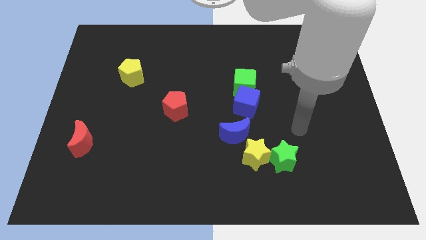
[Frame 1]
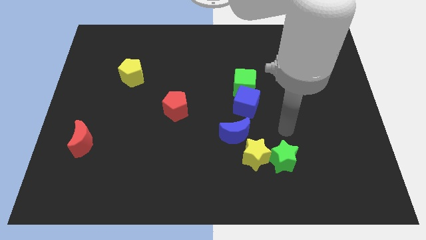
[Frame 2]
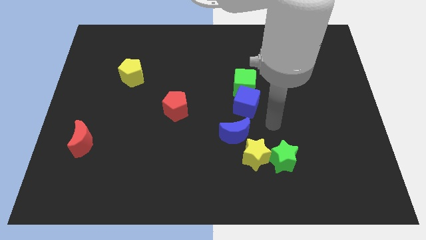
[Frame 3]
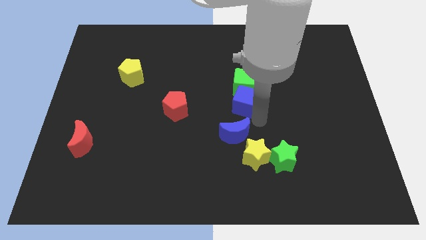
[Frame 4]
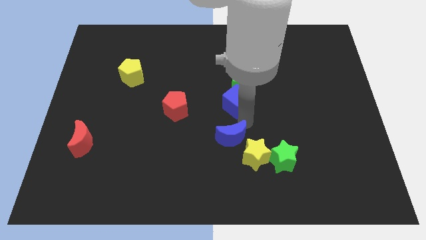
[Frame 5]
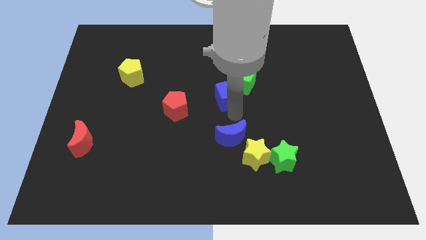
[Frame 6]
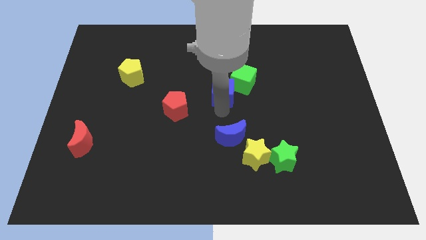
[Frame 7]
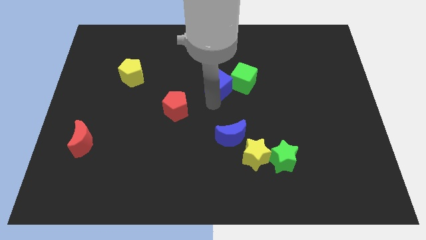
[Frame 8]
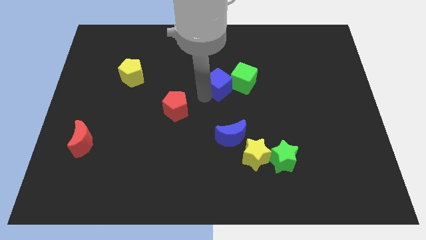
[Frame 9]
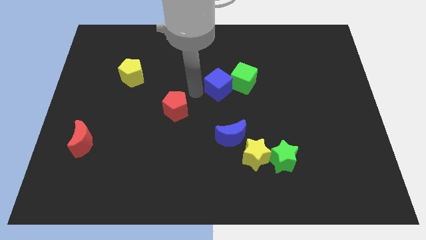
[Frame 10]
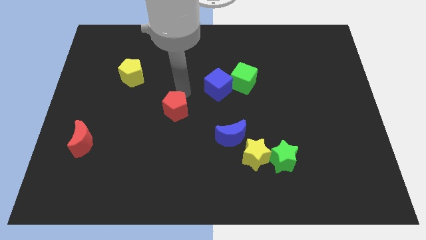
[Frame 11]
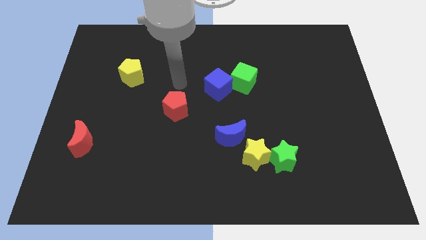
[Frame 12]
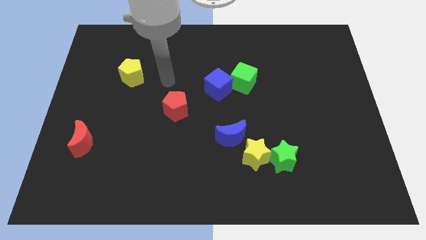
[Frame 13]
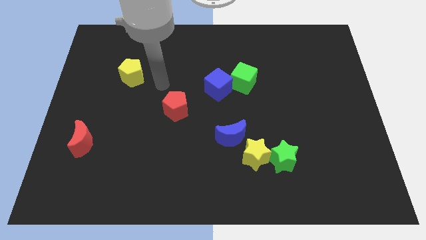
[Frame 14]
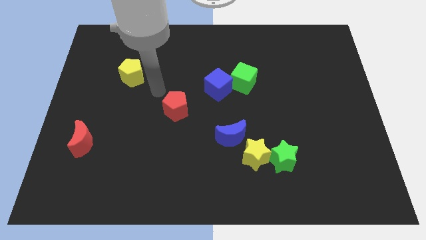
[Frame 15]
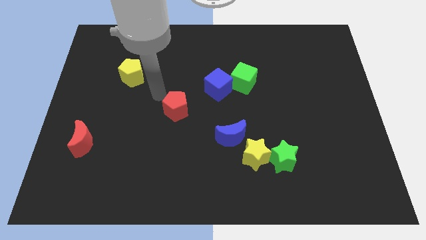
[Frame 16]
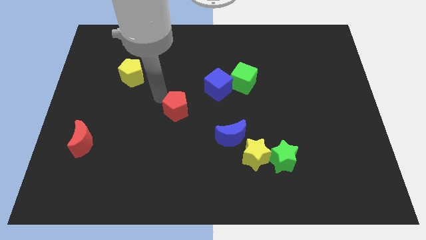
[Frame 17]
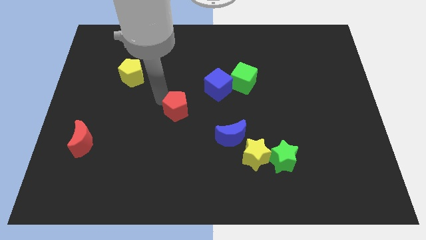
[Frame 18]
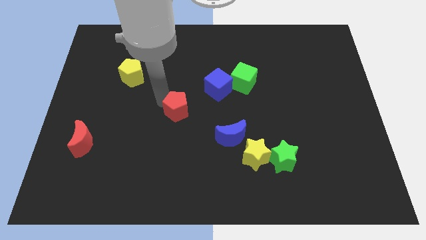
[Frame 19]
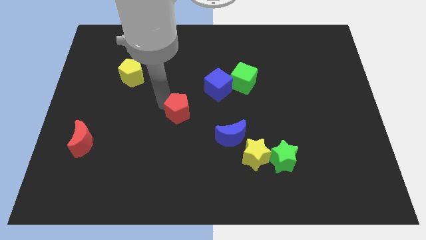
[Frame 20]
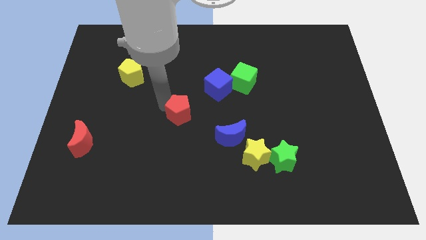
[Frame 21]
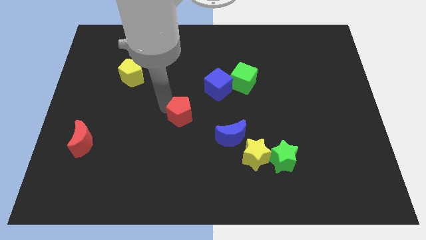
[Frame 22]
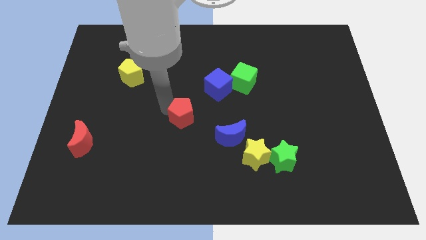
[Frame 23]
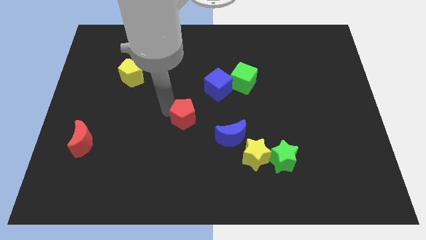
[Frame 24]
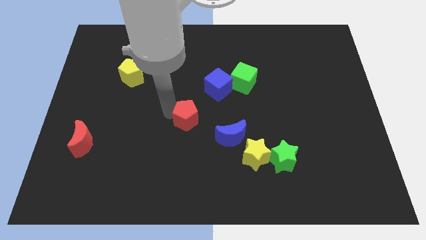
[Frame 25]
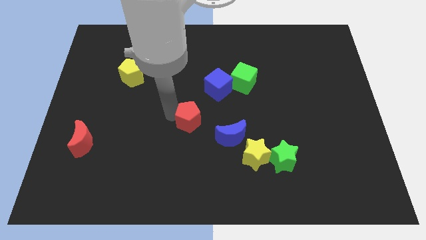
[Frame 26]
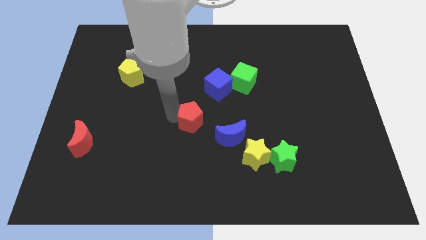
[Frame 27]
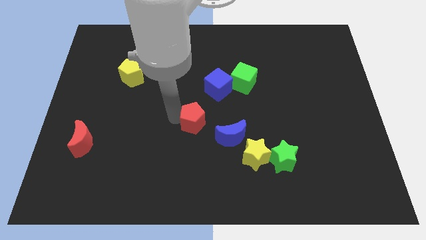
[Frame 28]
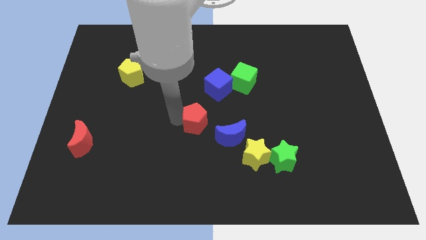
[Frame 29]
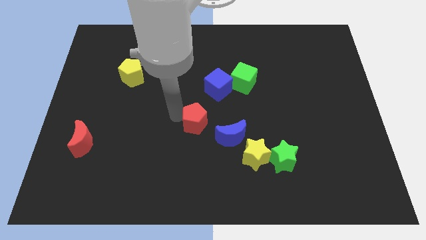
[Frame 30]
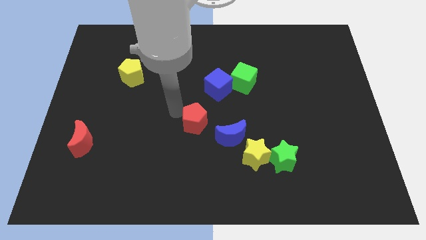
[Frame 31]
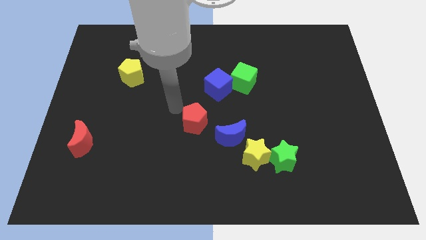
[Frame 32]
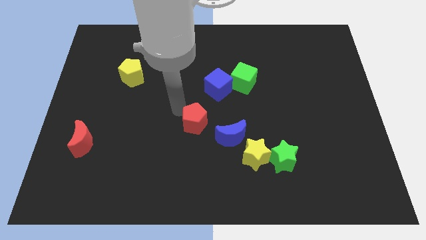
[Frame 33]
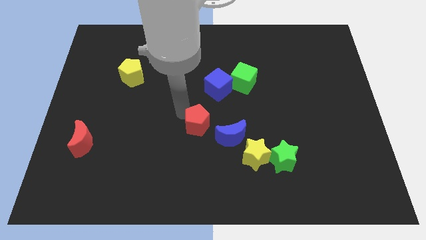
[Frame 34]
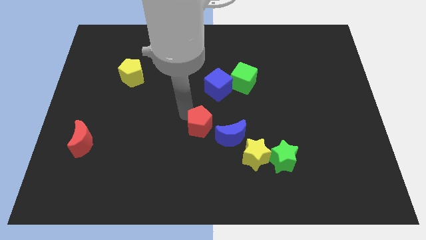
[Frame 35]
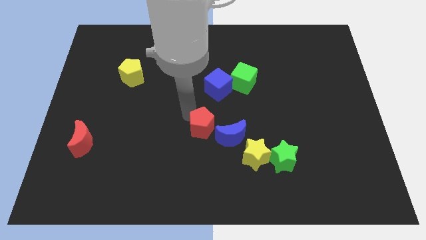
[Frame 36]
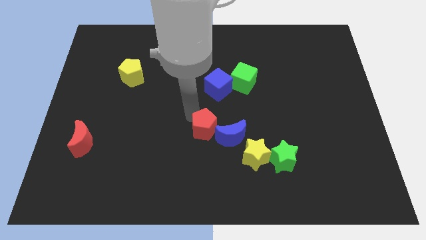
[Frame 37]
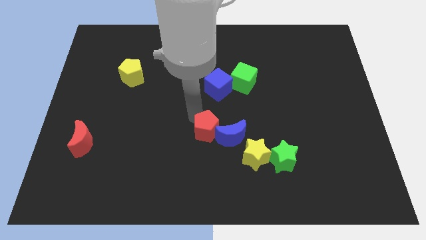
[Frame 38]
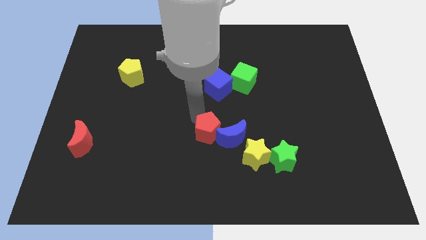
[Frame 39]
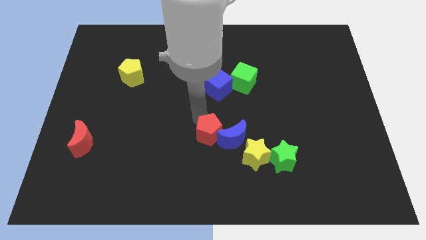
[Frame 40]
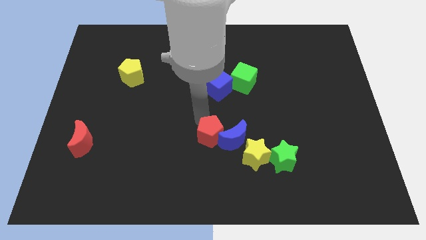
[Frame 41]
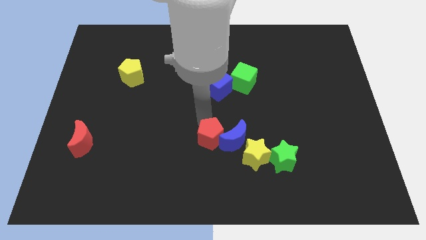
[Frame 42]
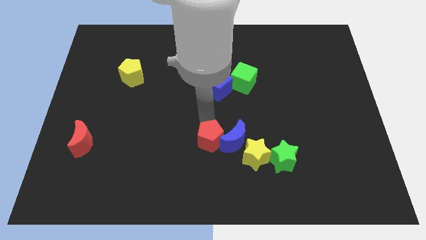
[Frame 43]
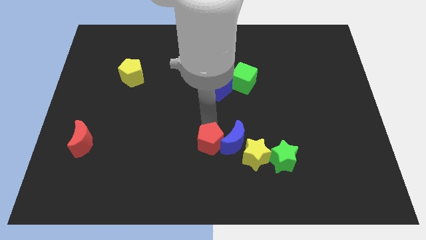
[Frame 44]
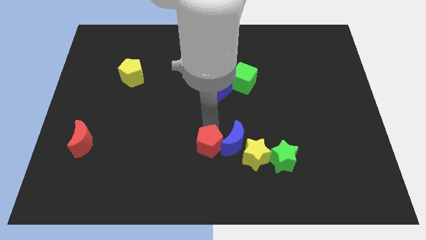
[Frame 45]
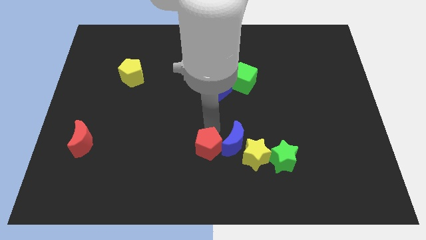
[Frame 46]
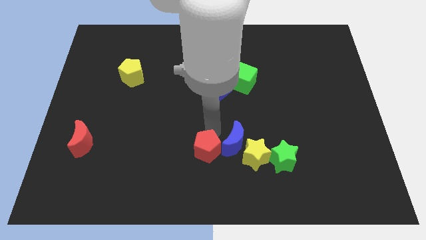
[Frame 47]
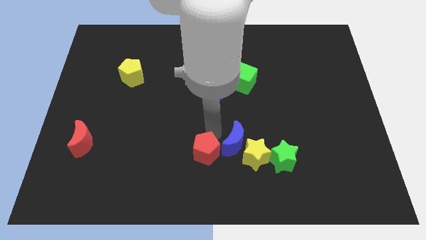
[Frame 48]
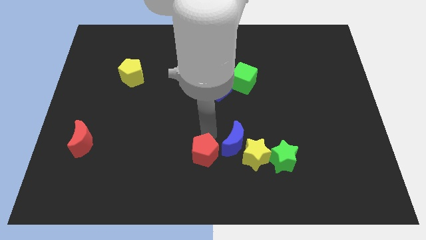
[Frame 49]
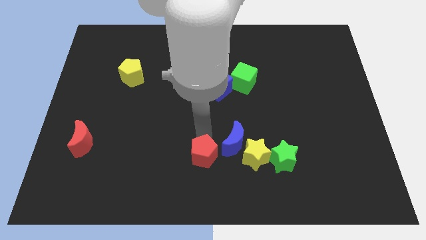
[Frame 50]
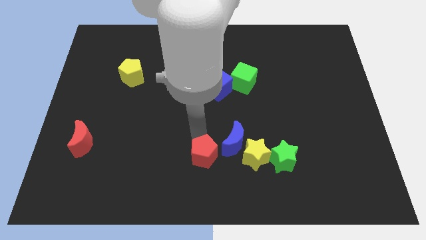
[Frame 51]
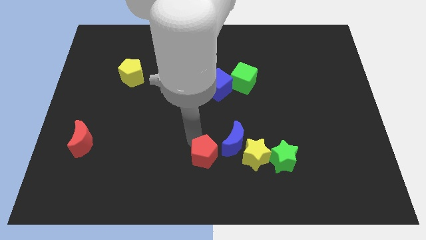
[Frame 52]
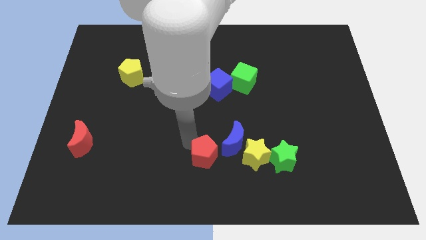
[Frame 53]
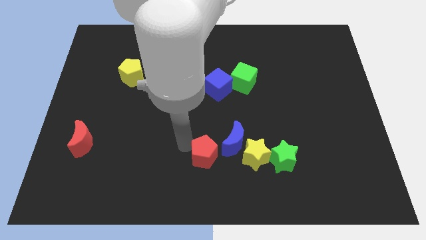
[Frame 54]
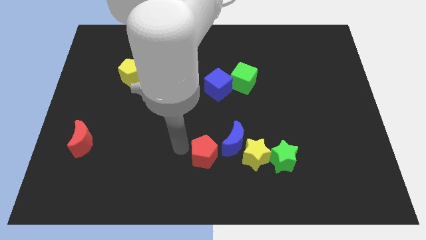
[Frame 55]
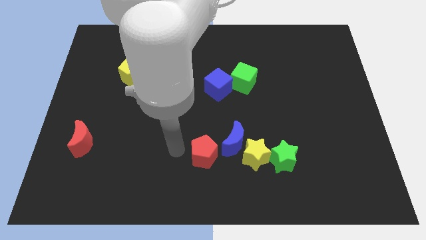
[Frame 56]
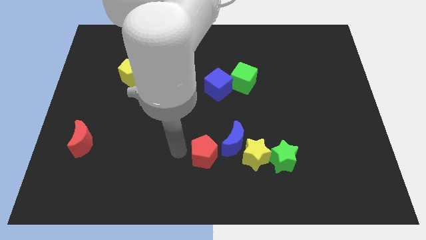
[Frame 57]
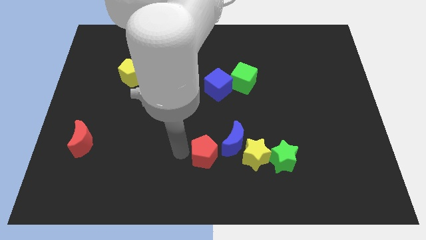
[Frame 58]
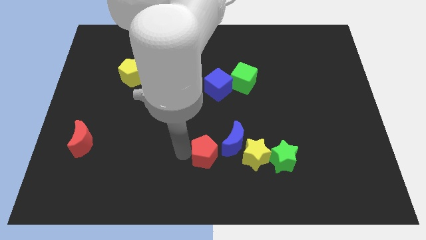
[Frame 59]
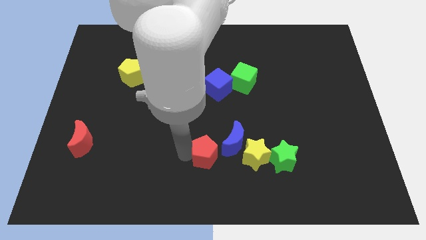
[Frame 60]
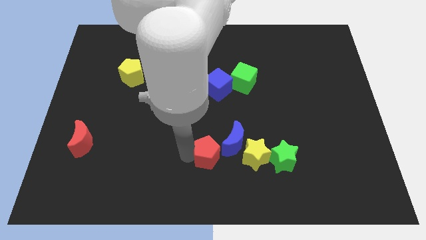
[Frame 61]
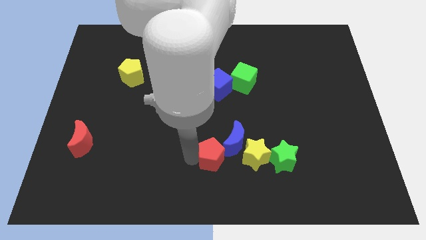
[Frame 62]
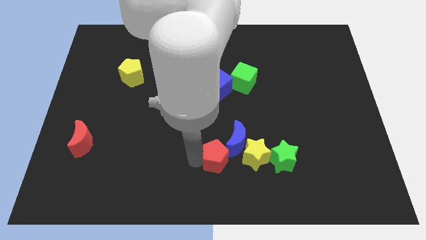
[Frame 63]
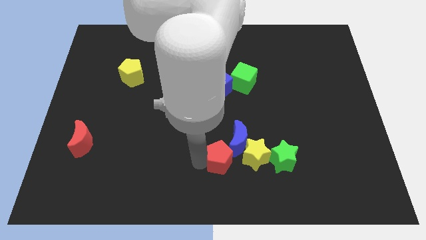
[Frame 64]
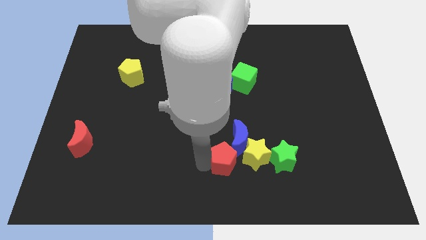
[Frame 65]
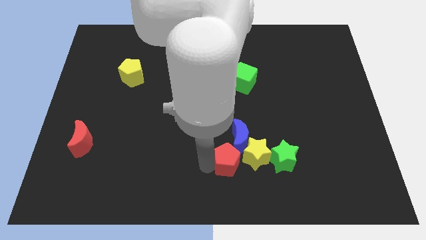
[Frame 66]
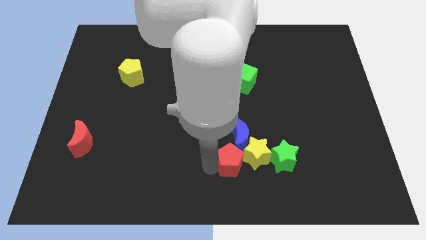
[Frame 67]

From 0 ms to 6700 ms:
put the red pentagon to the yellow star

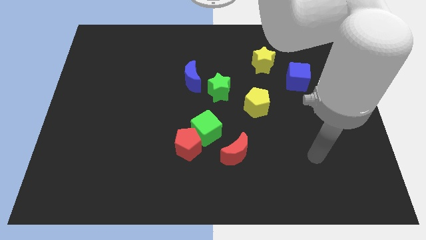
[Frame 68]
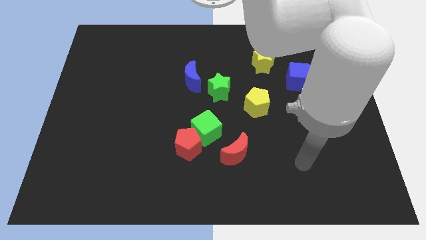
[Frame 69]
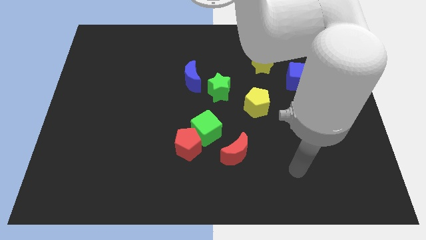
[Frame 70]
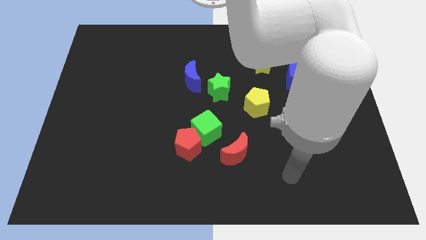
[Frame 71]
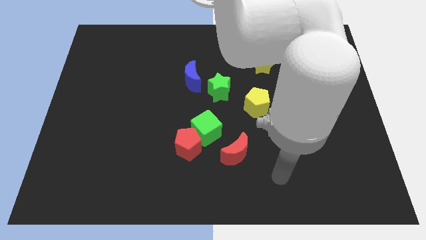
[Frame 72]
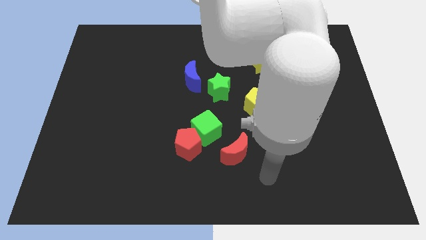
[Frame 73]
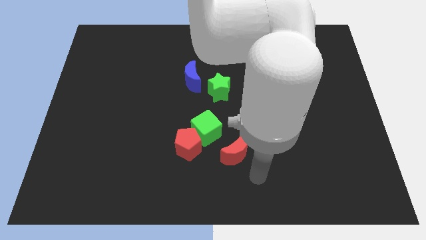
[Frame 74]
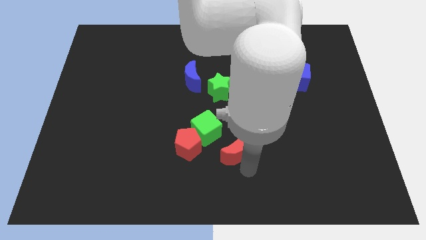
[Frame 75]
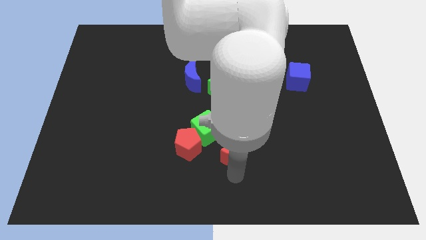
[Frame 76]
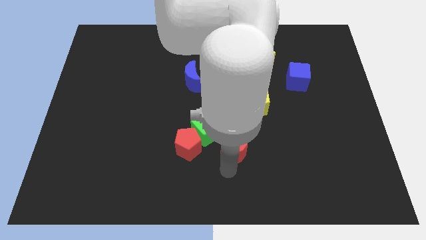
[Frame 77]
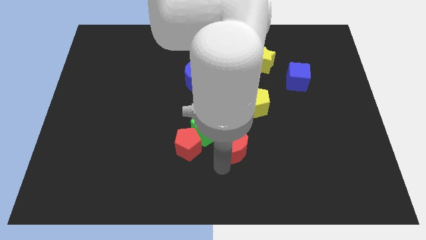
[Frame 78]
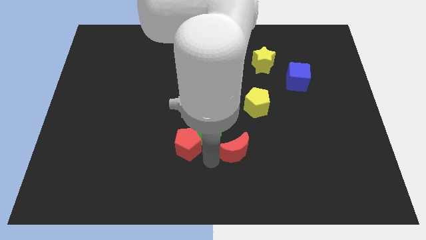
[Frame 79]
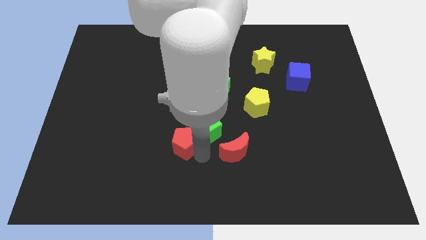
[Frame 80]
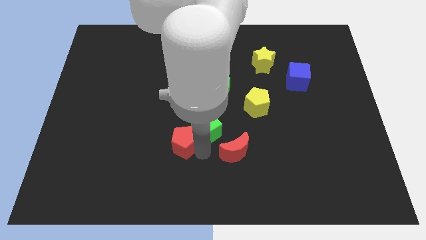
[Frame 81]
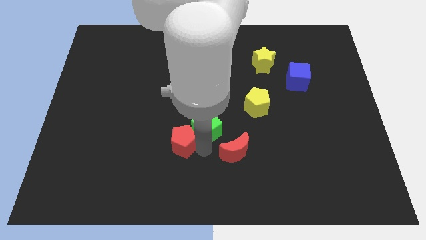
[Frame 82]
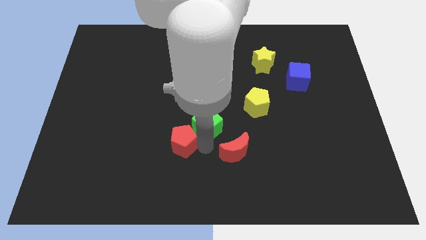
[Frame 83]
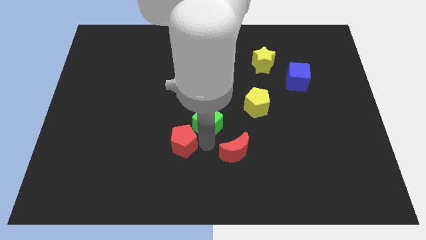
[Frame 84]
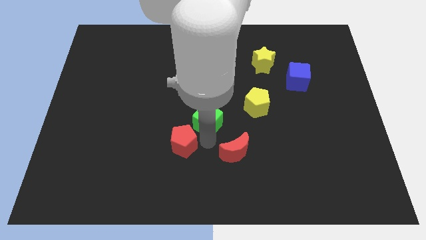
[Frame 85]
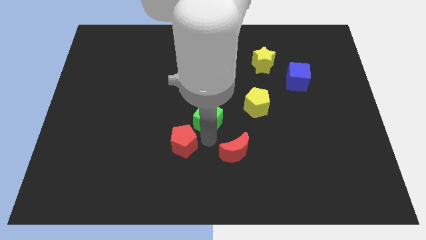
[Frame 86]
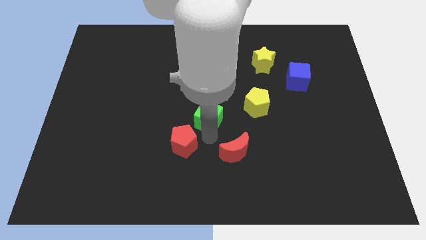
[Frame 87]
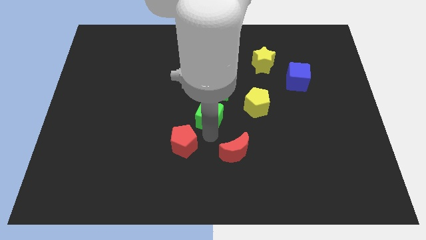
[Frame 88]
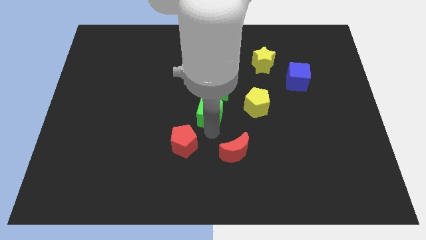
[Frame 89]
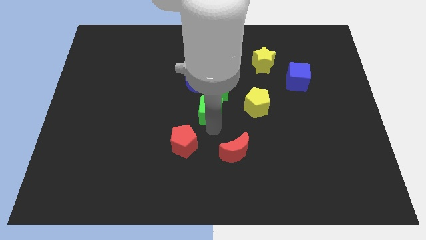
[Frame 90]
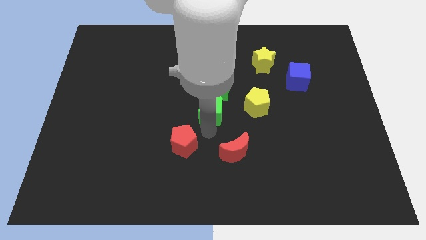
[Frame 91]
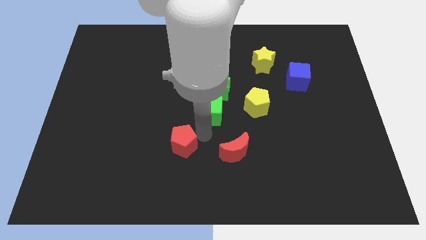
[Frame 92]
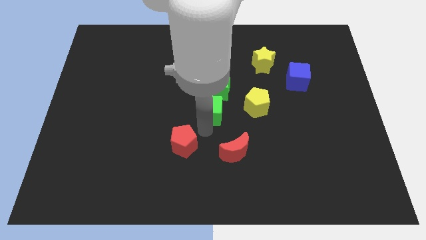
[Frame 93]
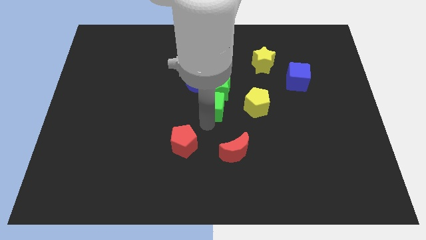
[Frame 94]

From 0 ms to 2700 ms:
slide the green cube to the green star
